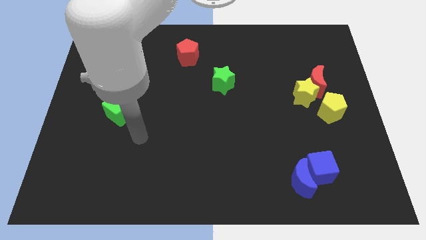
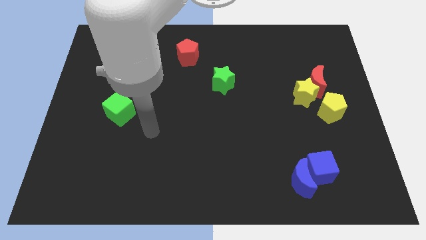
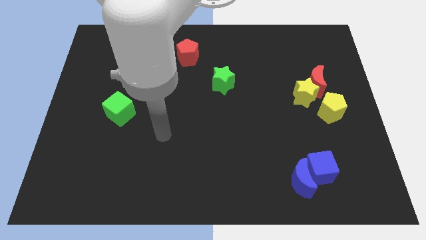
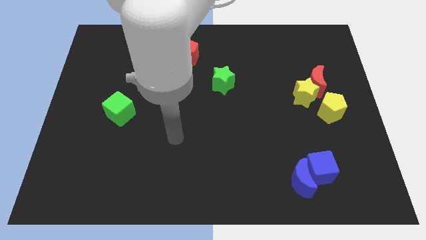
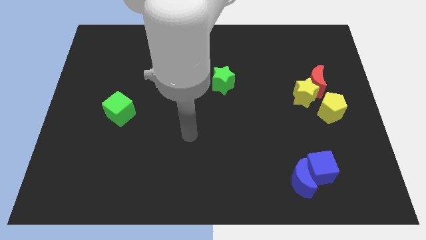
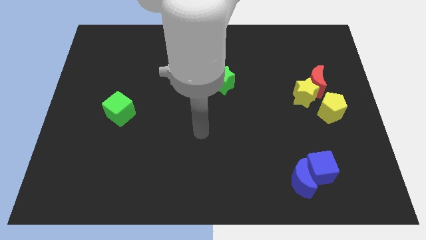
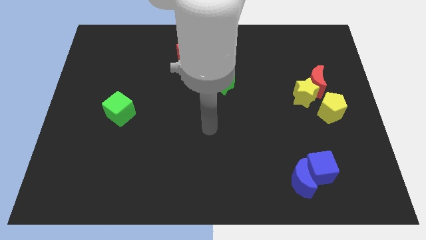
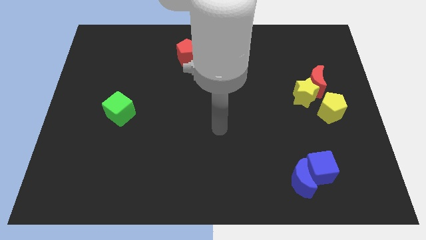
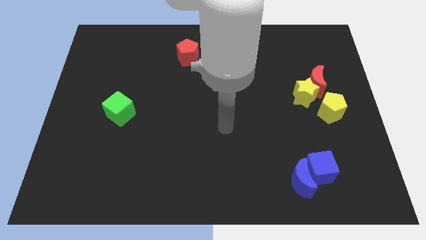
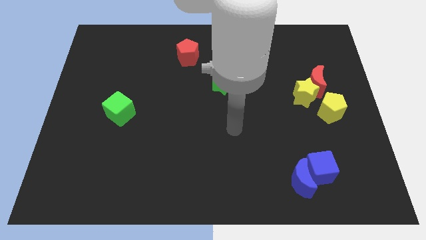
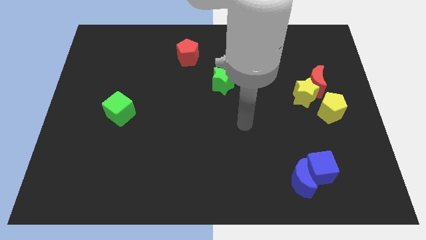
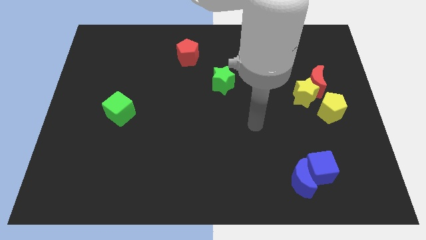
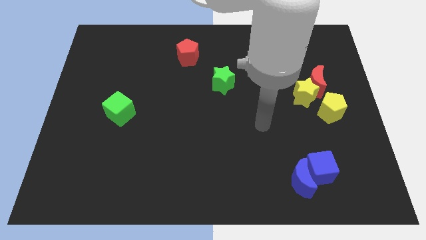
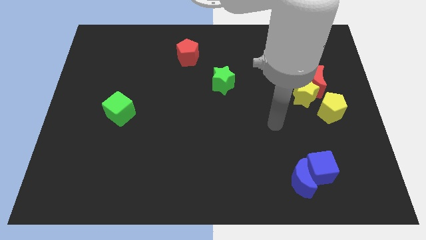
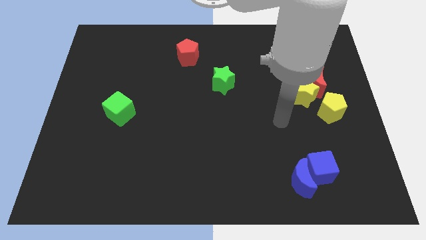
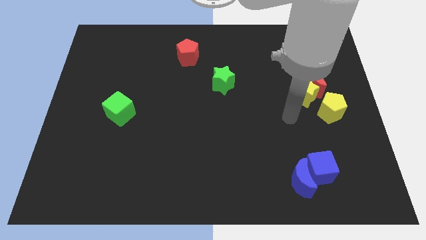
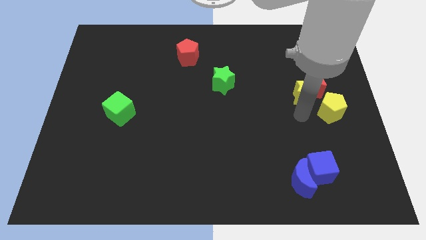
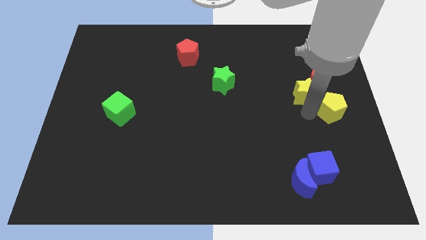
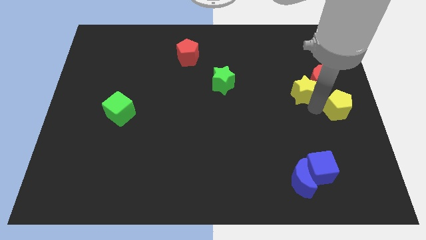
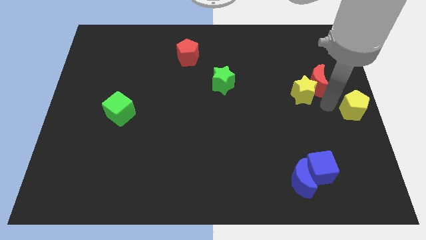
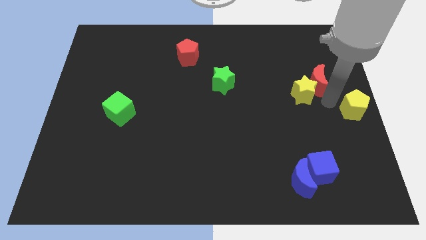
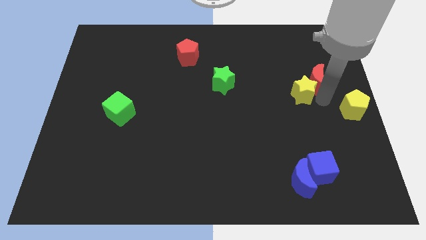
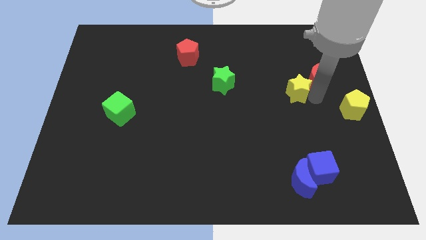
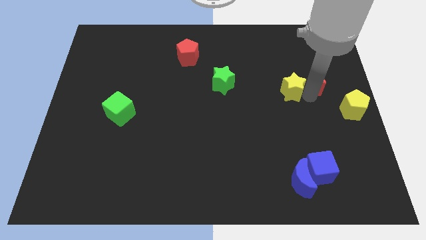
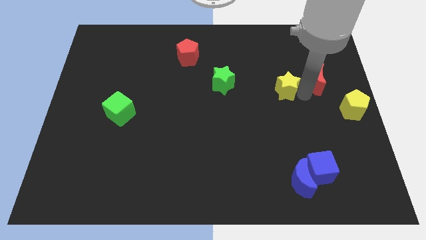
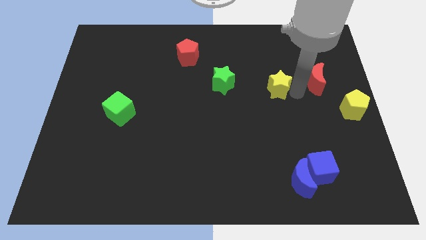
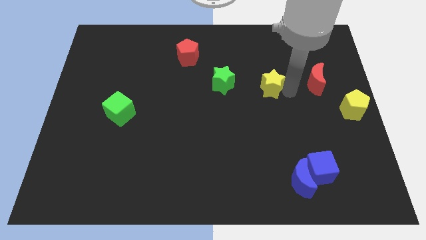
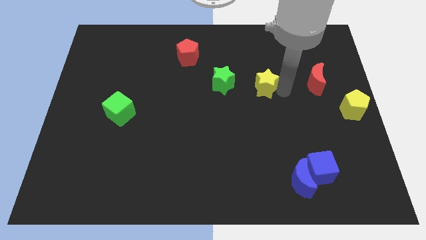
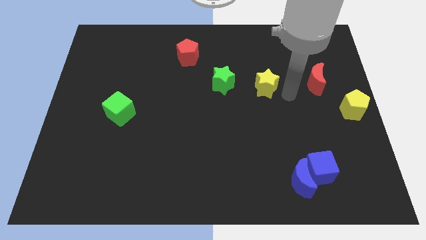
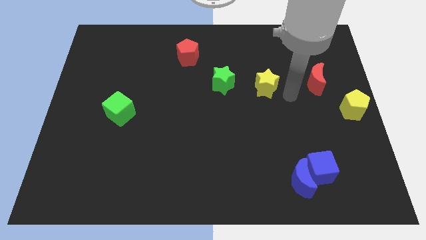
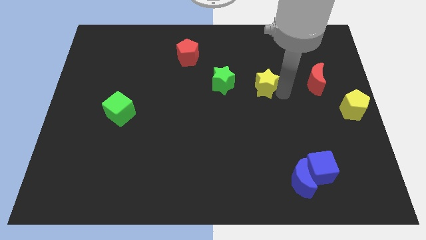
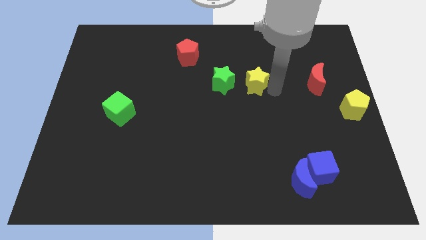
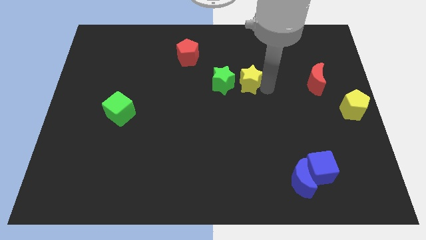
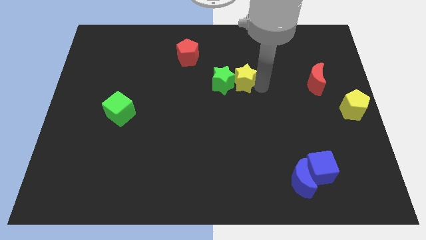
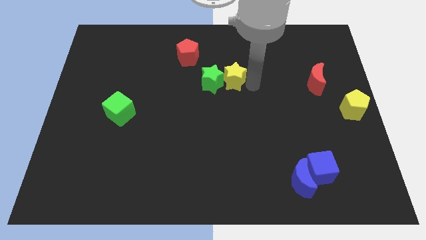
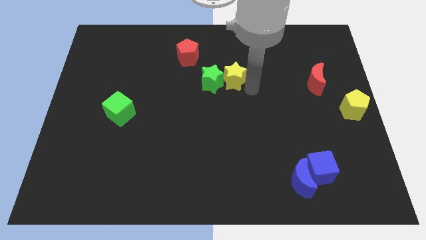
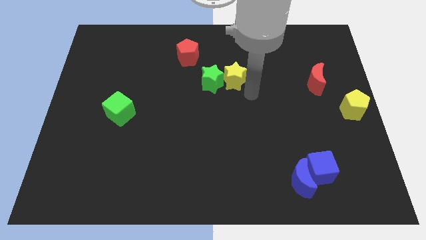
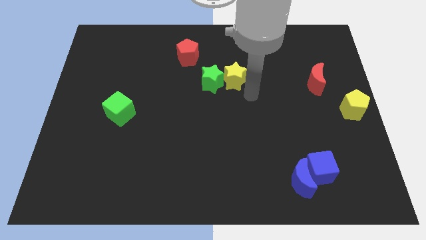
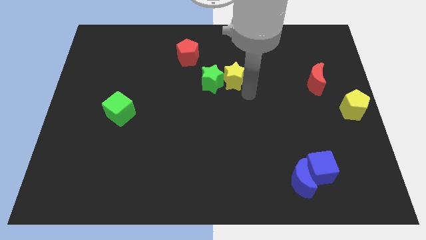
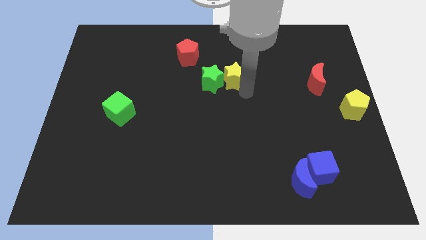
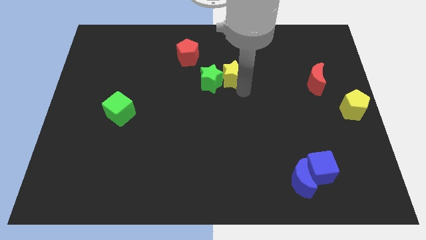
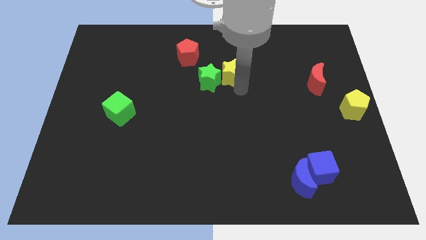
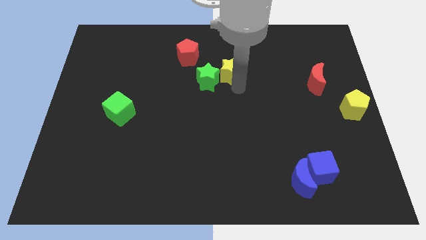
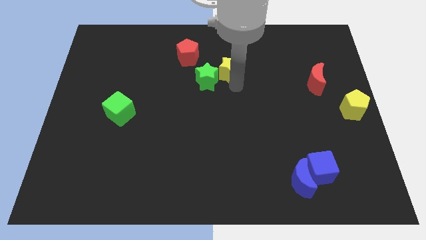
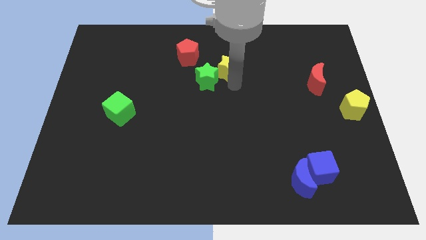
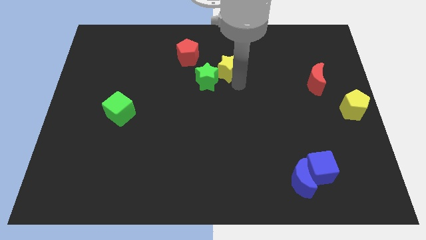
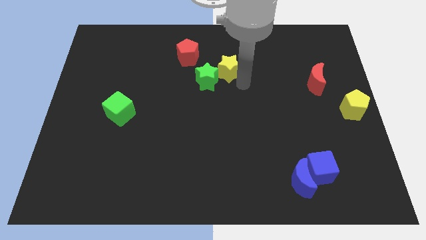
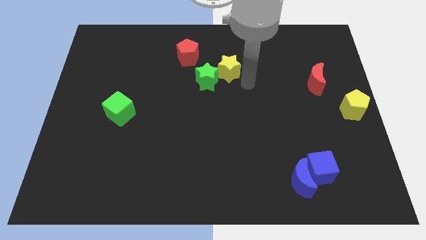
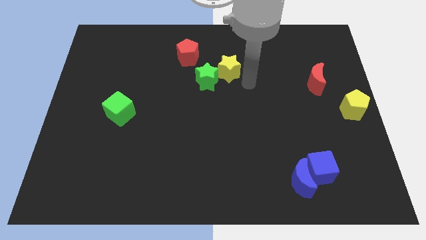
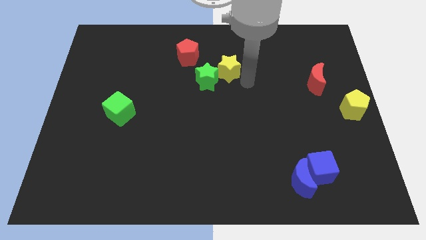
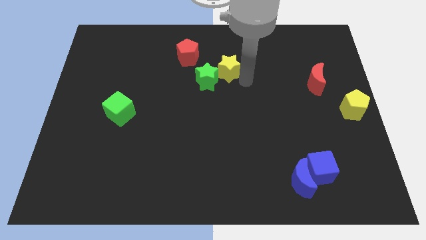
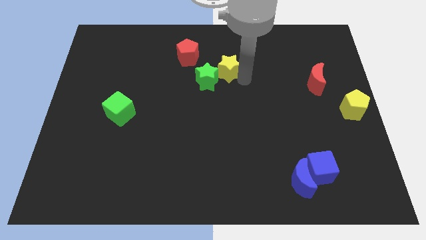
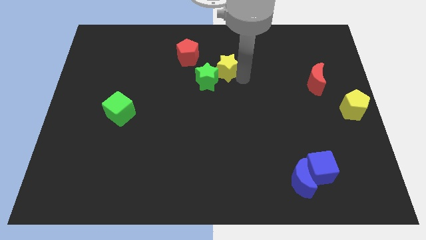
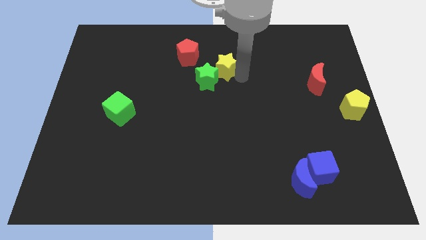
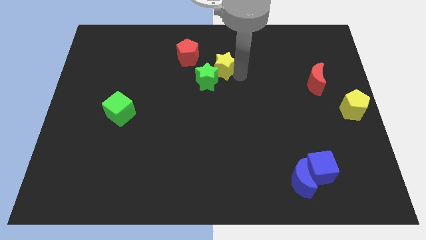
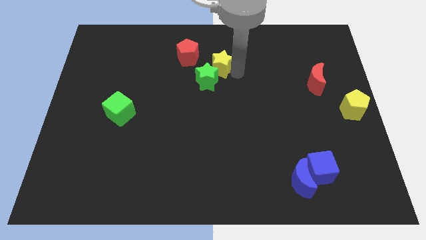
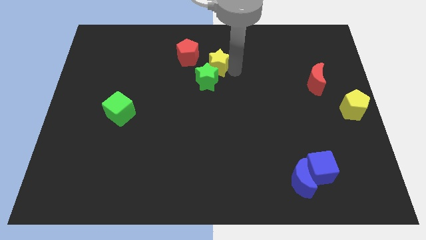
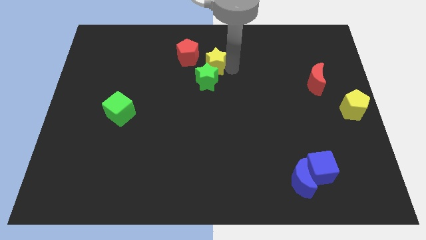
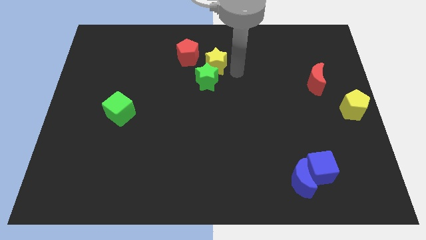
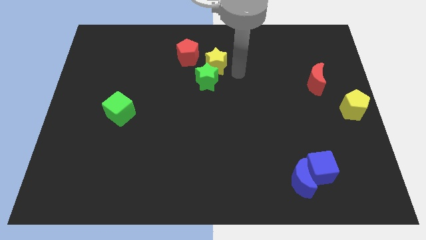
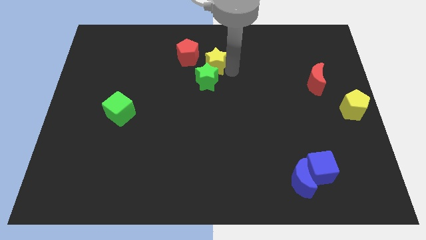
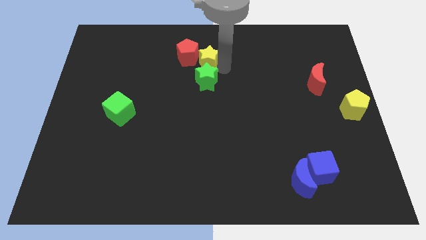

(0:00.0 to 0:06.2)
push the yellow star next to the red pentagon

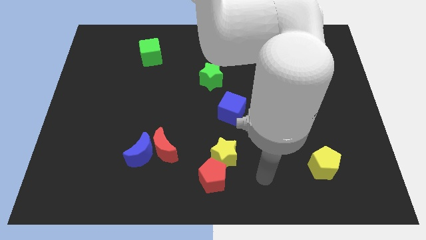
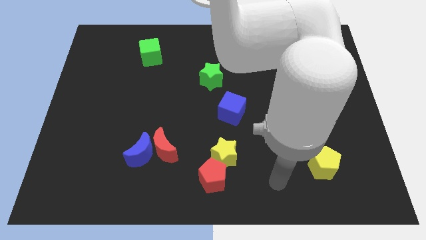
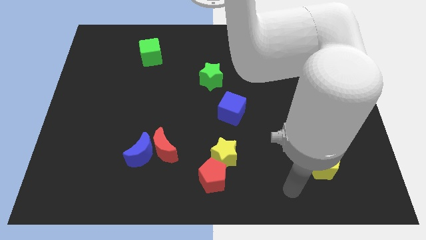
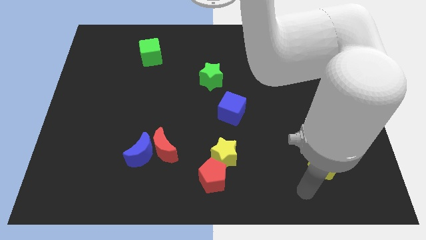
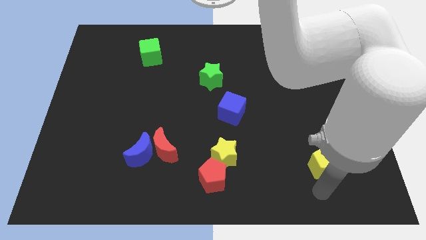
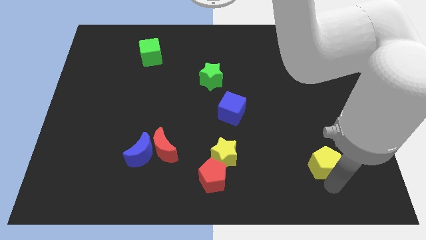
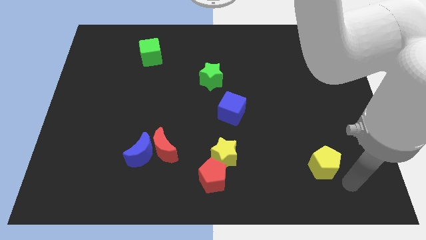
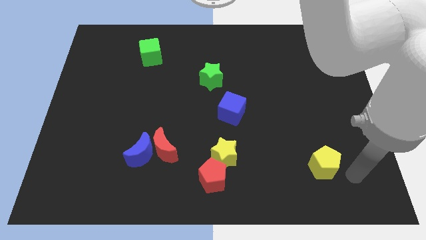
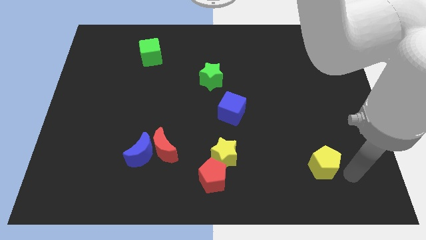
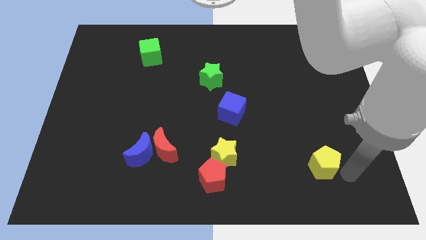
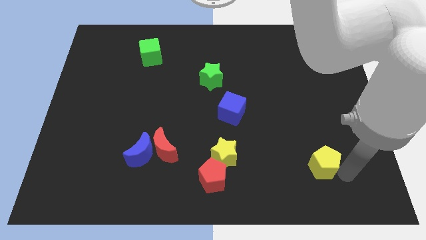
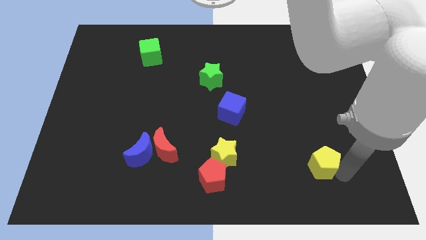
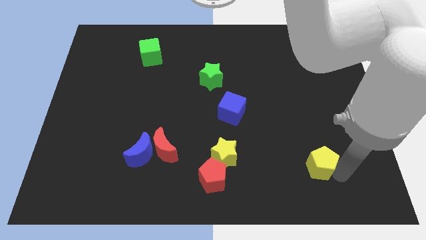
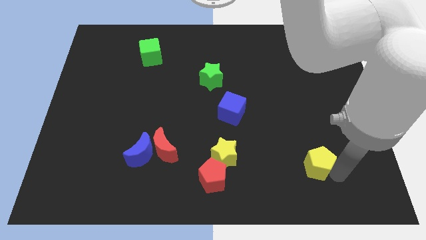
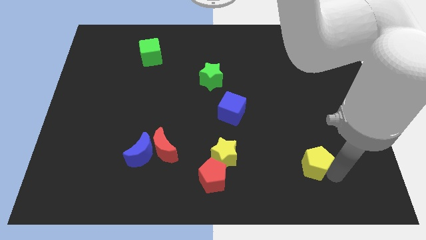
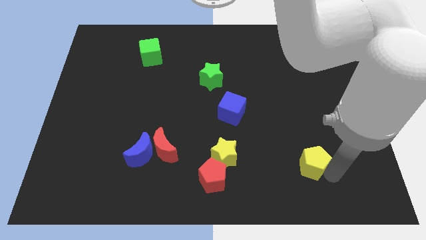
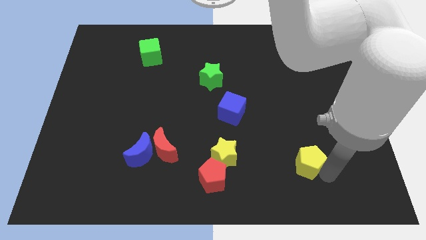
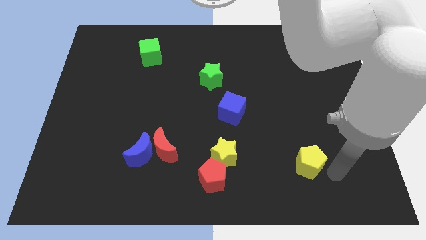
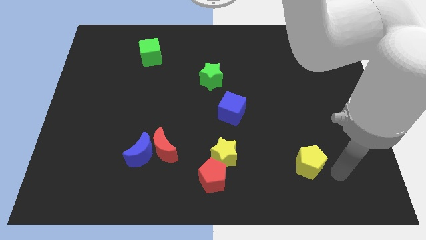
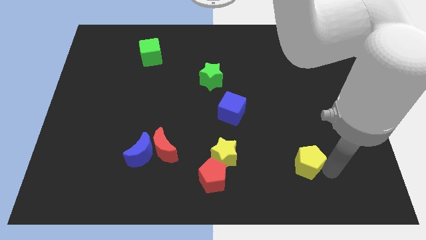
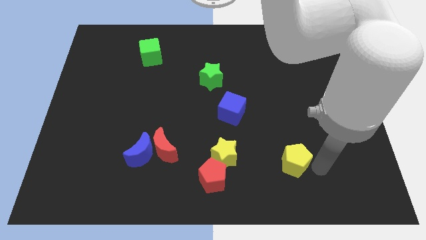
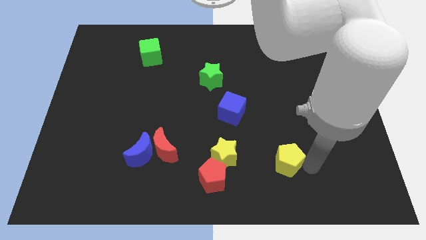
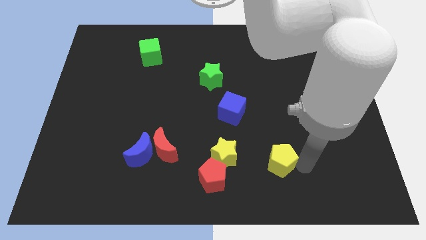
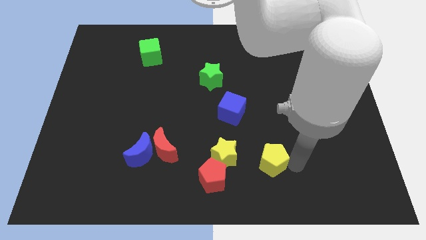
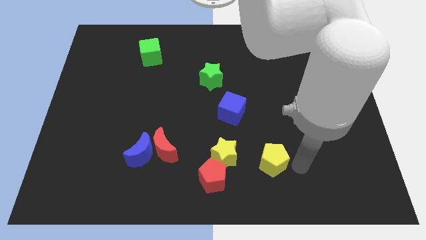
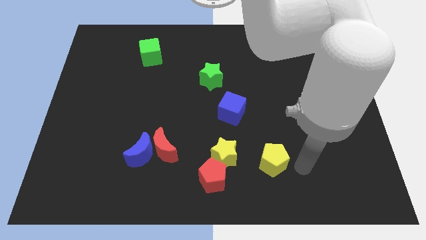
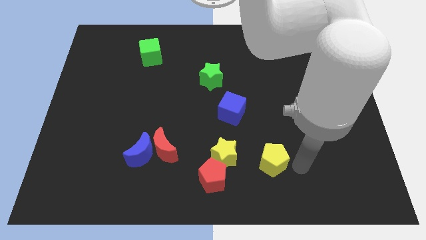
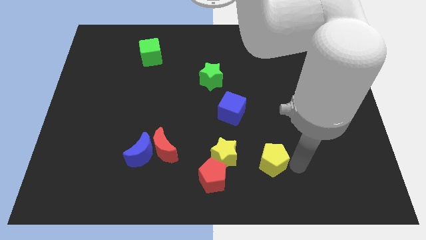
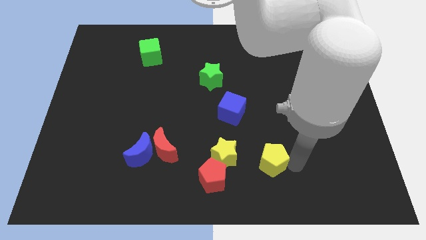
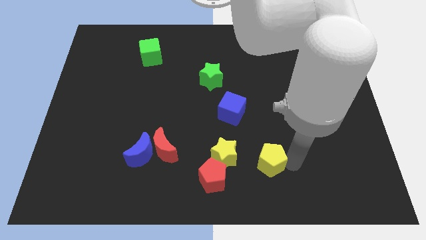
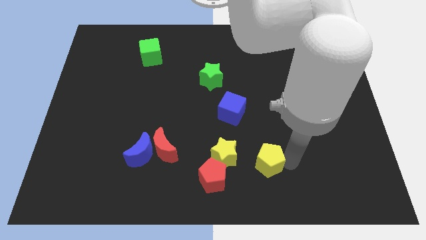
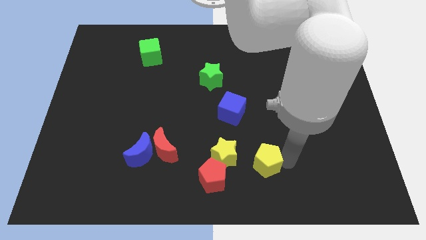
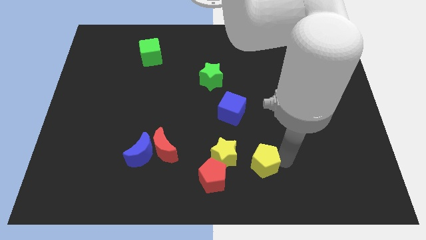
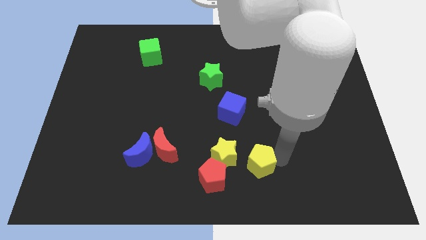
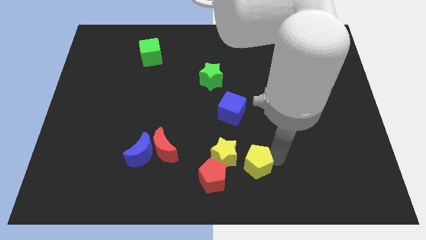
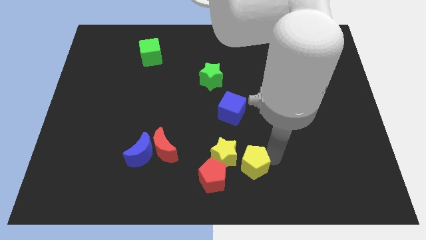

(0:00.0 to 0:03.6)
put the yellow pentagon to the yellow star
